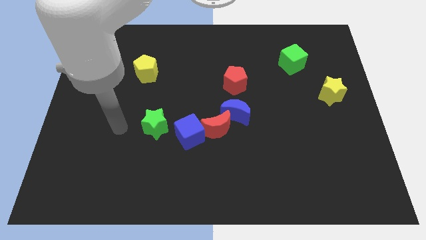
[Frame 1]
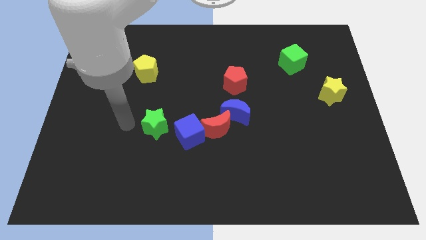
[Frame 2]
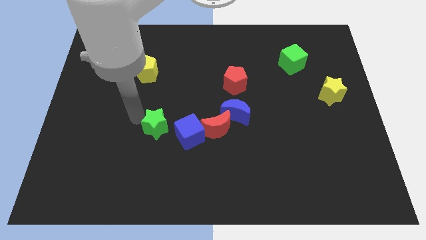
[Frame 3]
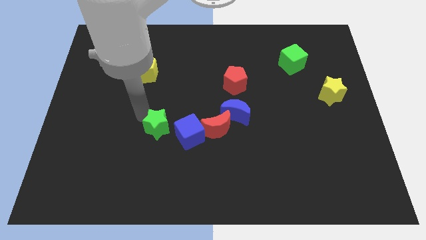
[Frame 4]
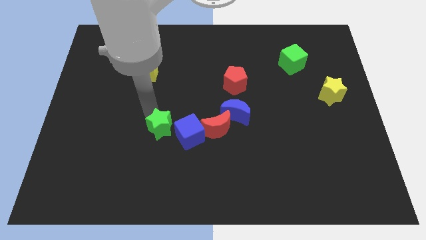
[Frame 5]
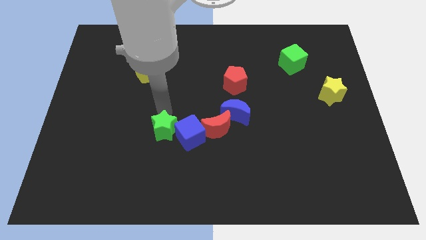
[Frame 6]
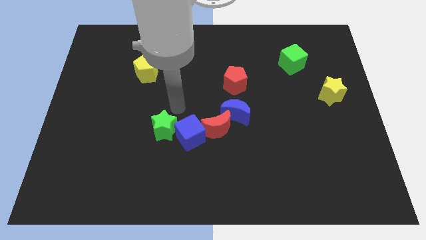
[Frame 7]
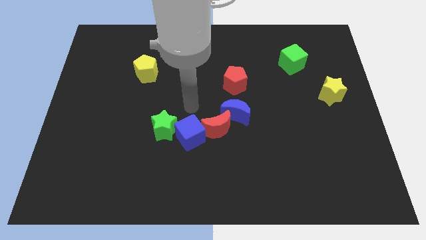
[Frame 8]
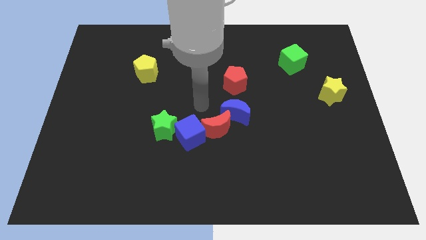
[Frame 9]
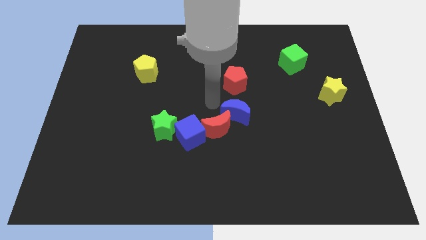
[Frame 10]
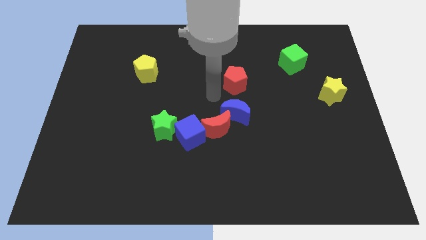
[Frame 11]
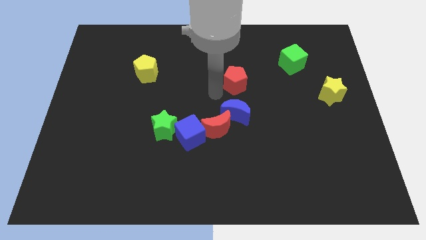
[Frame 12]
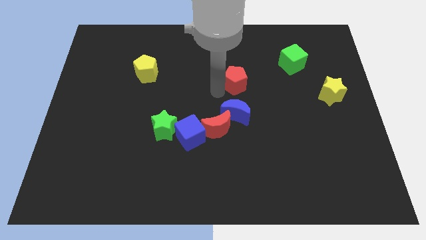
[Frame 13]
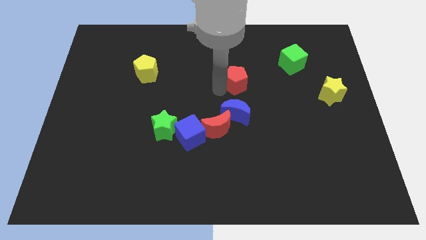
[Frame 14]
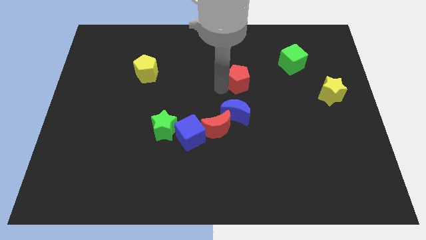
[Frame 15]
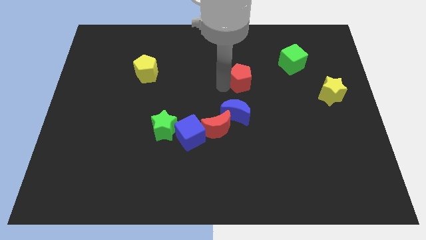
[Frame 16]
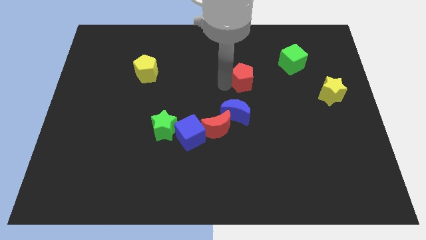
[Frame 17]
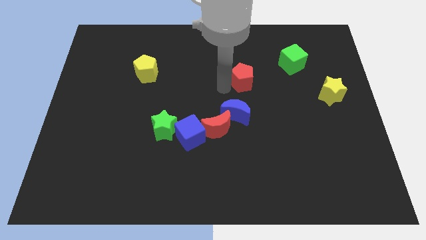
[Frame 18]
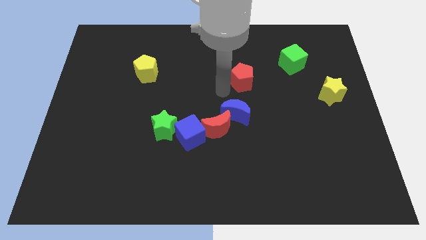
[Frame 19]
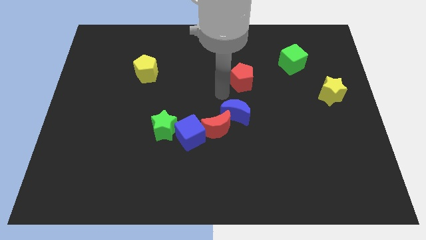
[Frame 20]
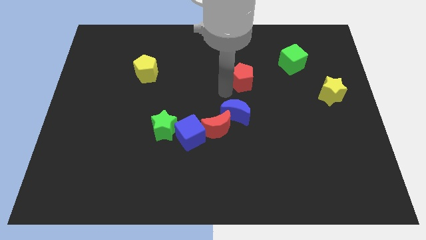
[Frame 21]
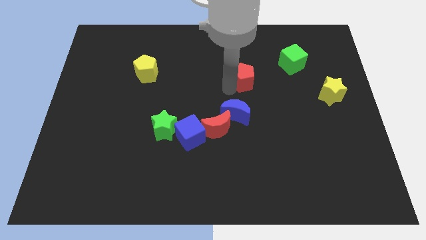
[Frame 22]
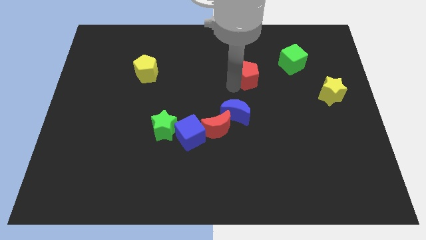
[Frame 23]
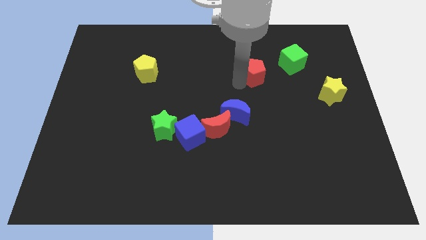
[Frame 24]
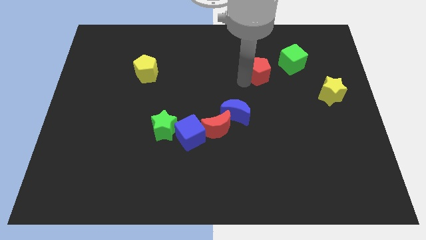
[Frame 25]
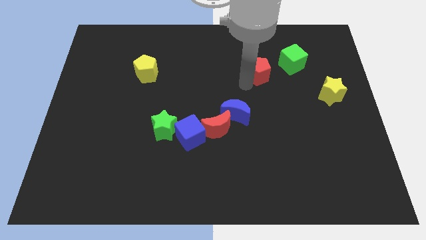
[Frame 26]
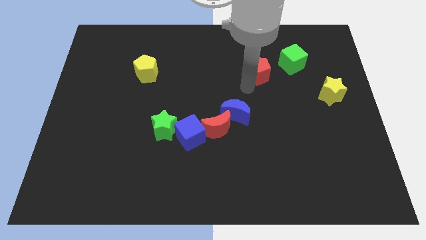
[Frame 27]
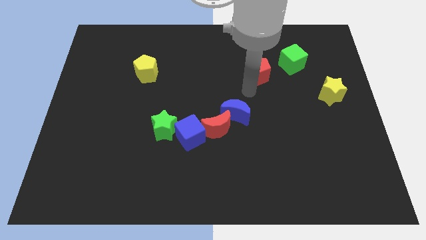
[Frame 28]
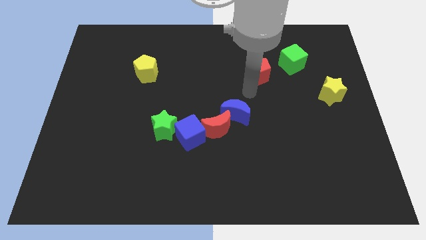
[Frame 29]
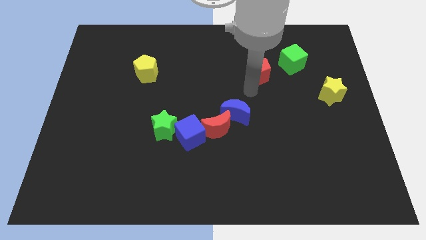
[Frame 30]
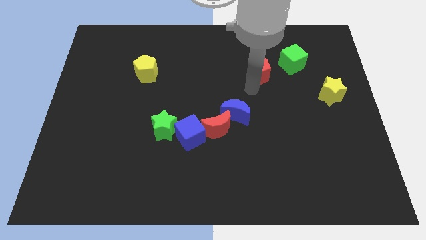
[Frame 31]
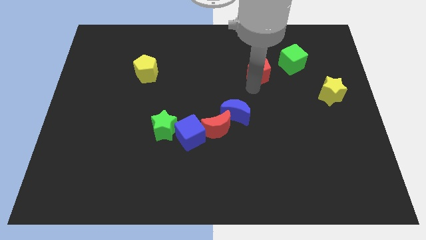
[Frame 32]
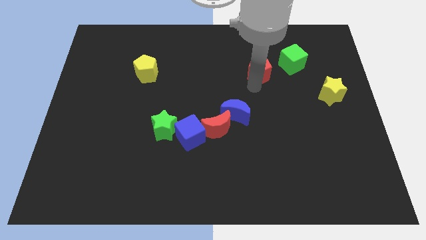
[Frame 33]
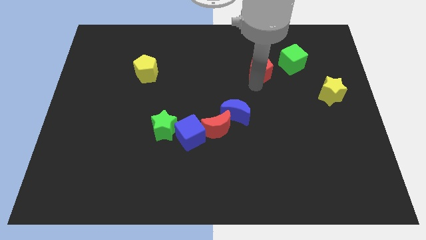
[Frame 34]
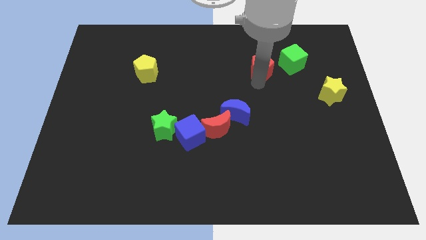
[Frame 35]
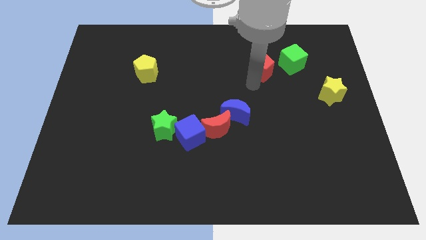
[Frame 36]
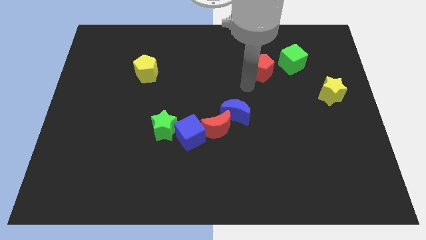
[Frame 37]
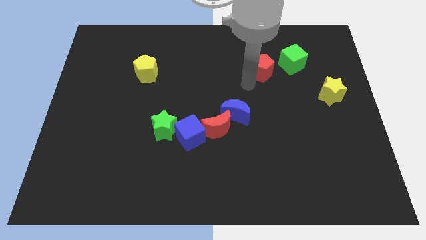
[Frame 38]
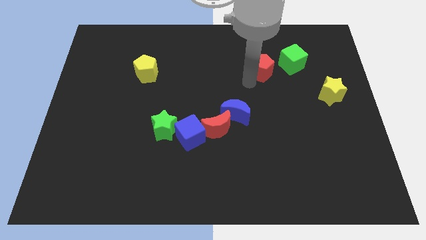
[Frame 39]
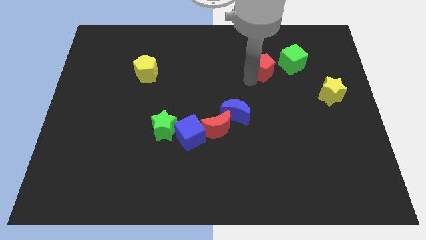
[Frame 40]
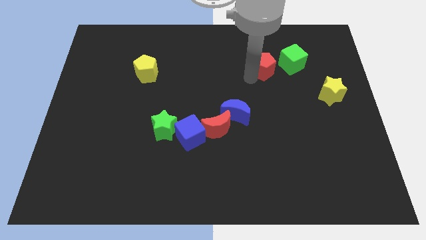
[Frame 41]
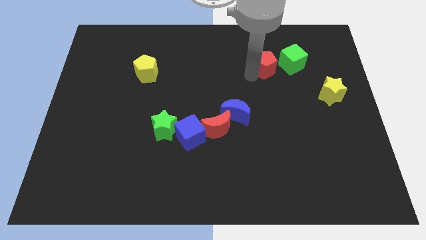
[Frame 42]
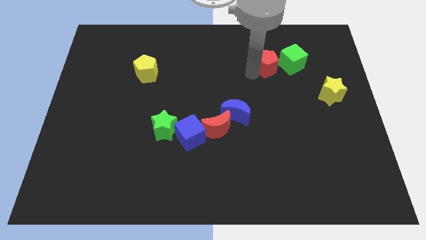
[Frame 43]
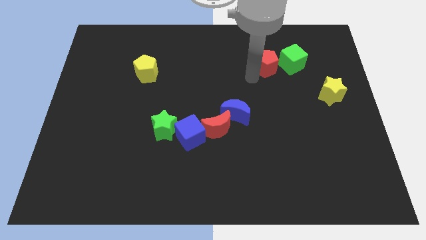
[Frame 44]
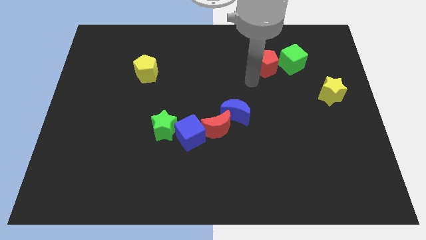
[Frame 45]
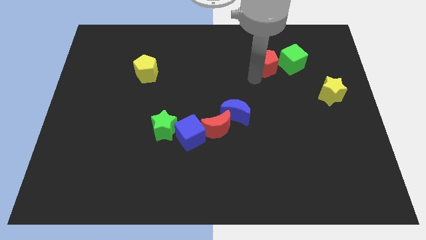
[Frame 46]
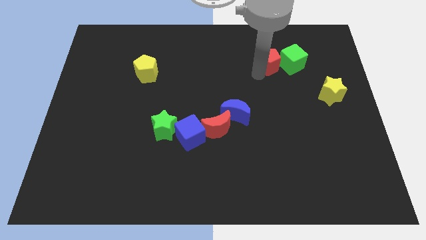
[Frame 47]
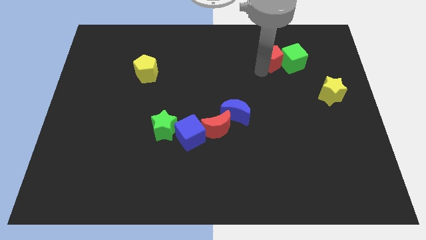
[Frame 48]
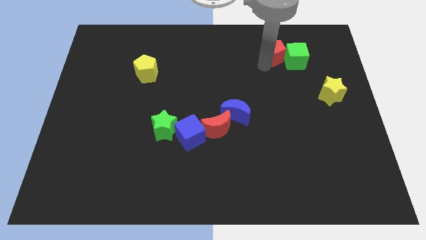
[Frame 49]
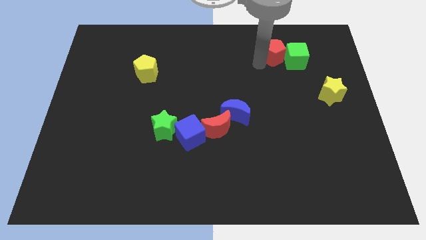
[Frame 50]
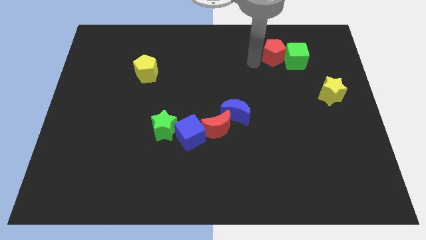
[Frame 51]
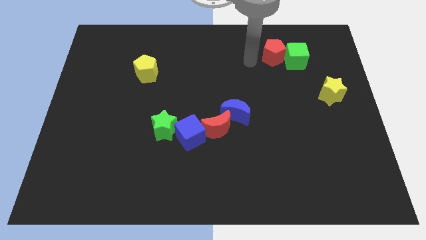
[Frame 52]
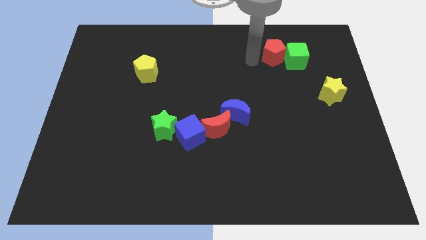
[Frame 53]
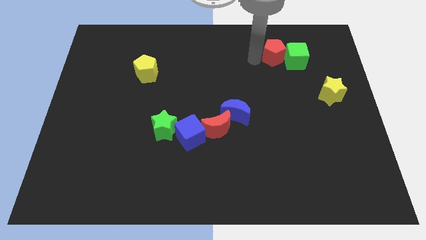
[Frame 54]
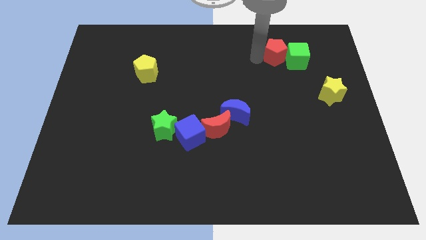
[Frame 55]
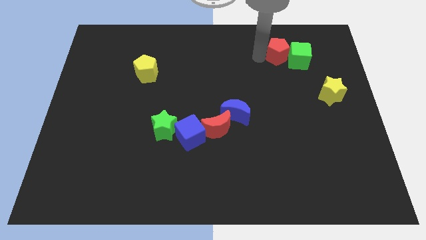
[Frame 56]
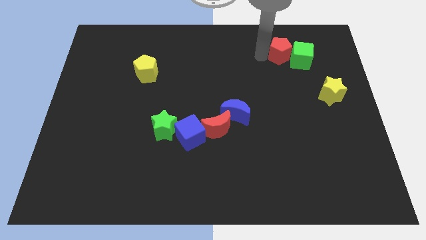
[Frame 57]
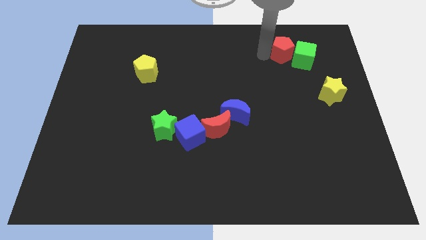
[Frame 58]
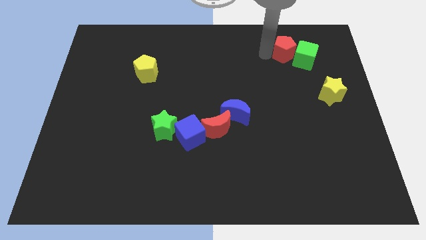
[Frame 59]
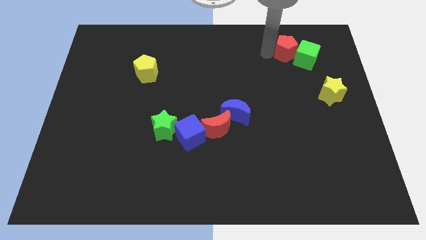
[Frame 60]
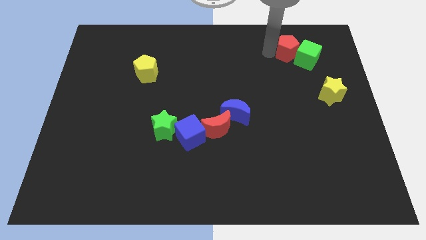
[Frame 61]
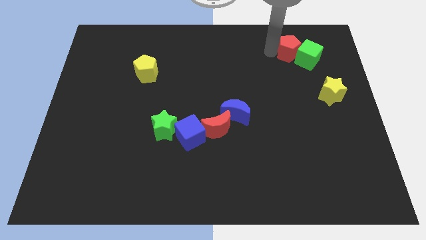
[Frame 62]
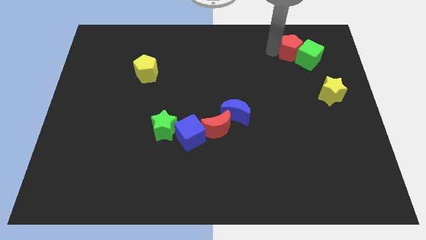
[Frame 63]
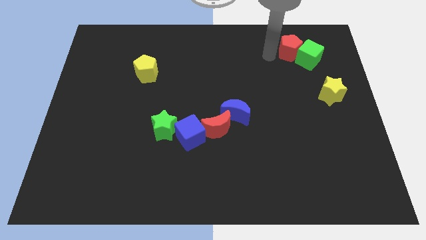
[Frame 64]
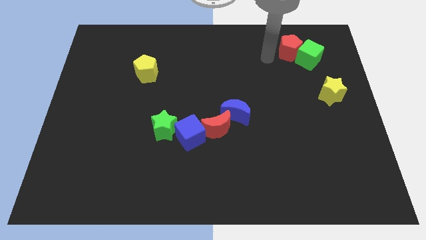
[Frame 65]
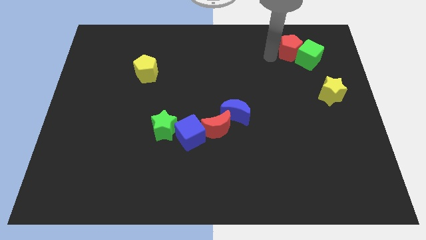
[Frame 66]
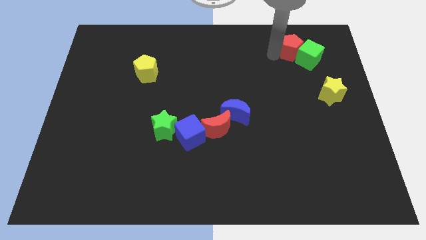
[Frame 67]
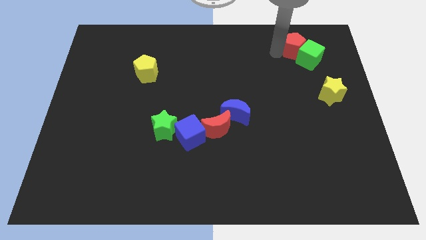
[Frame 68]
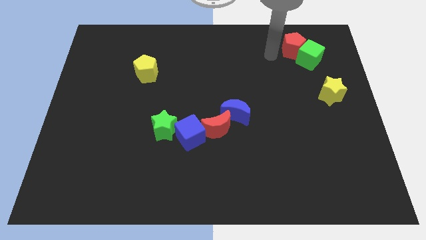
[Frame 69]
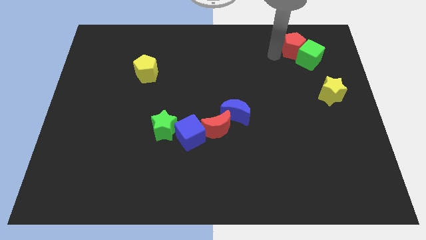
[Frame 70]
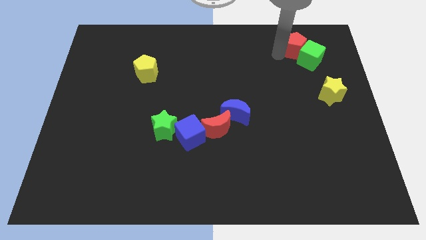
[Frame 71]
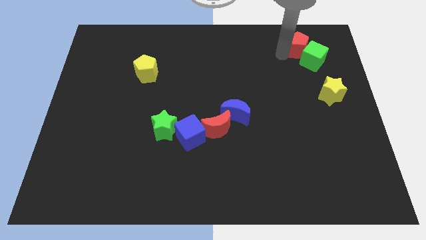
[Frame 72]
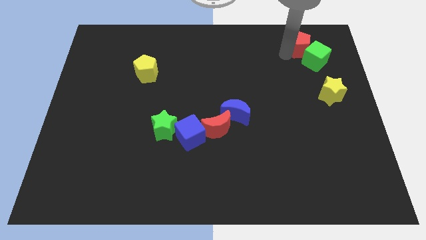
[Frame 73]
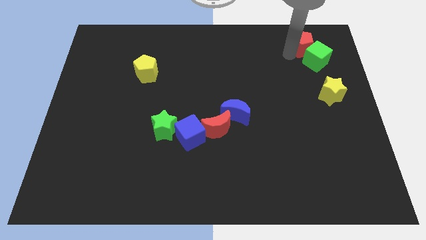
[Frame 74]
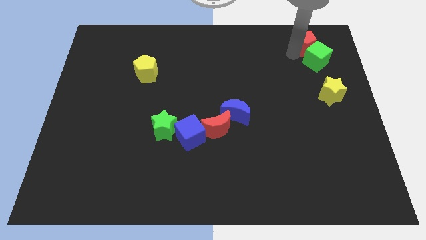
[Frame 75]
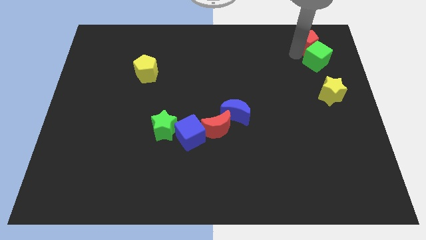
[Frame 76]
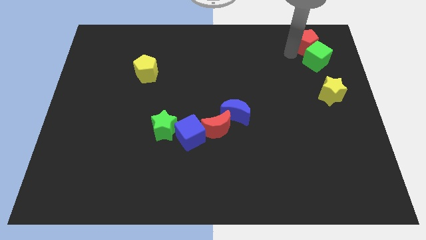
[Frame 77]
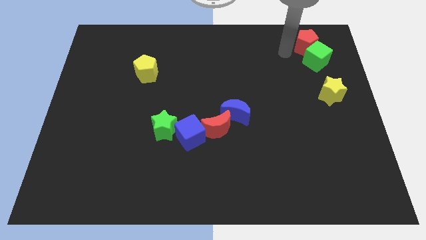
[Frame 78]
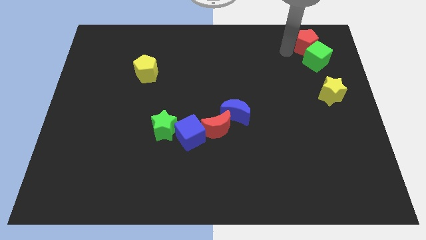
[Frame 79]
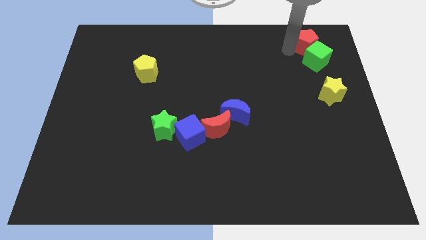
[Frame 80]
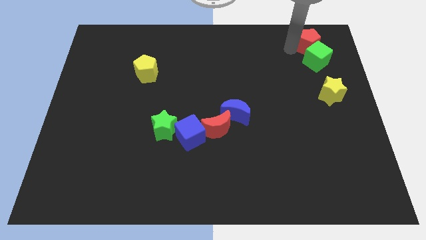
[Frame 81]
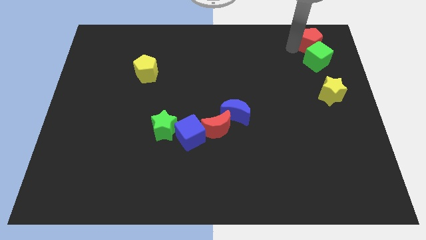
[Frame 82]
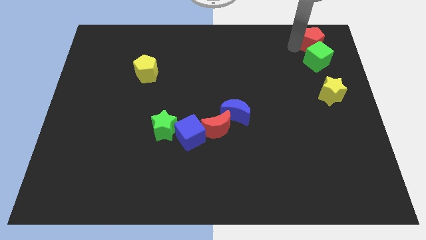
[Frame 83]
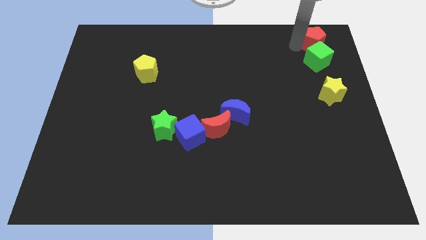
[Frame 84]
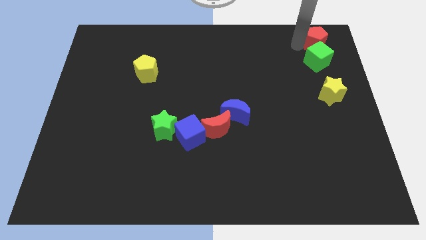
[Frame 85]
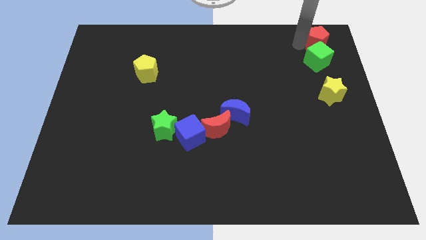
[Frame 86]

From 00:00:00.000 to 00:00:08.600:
slide the red pentagon to the top right of the board
